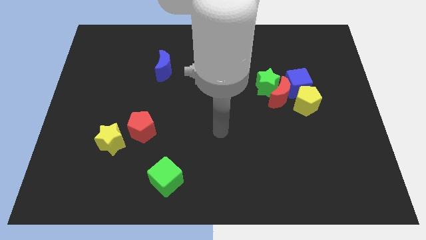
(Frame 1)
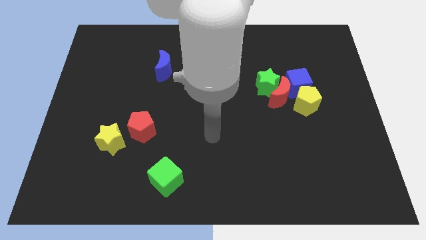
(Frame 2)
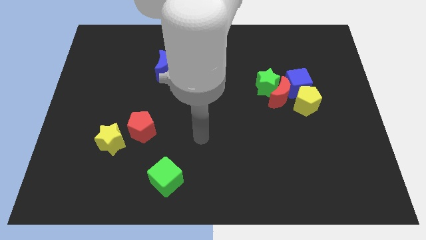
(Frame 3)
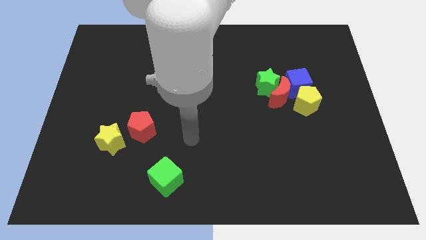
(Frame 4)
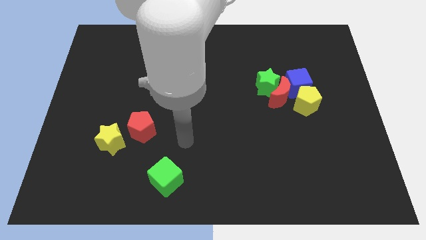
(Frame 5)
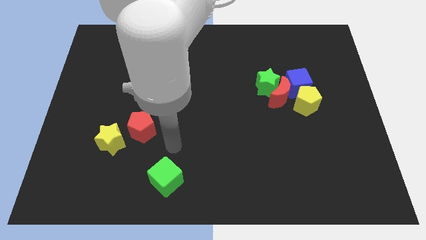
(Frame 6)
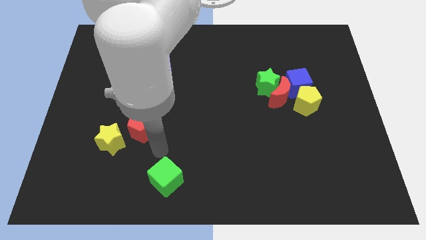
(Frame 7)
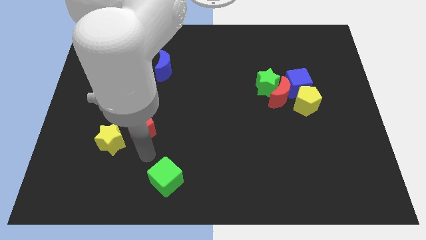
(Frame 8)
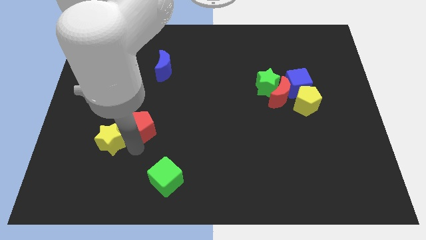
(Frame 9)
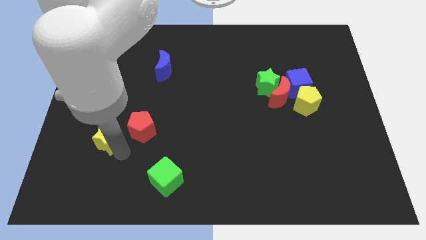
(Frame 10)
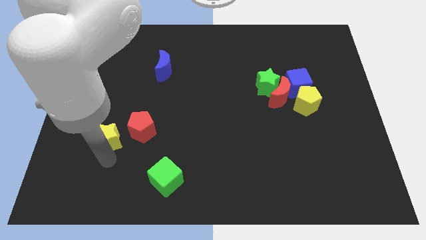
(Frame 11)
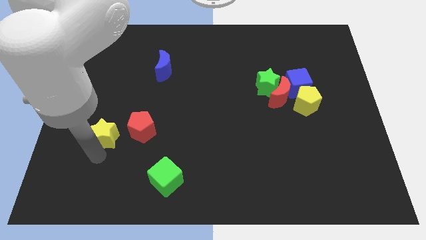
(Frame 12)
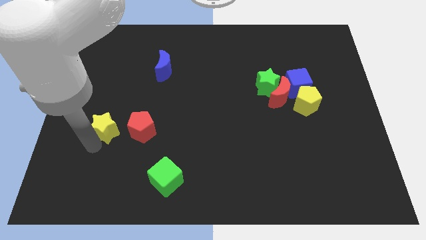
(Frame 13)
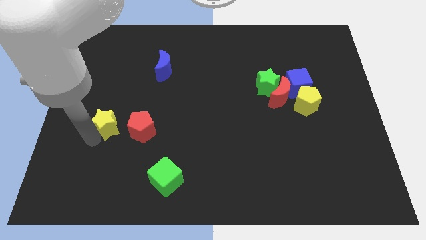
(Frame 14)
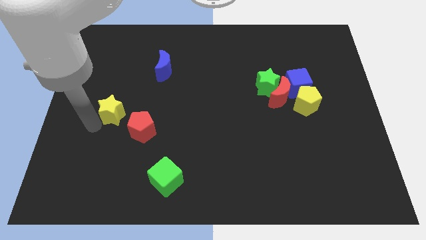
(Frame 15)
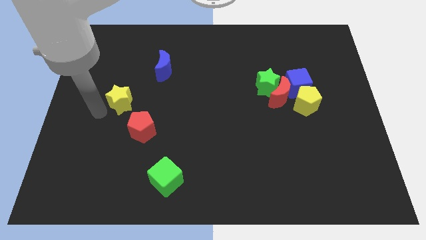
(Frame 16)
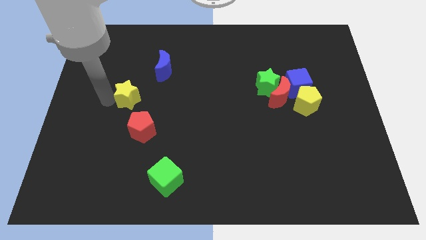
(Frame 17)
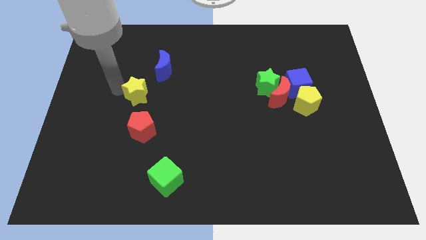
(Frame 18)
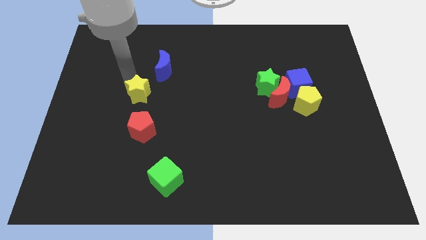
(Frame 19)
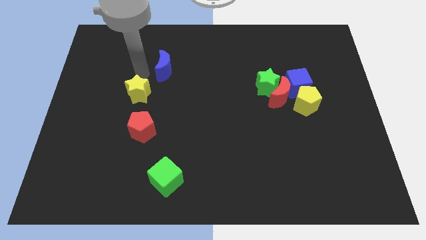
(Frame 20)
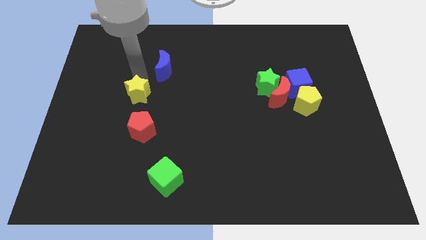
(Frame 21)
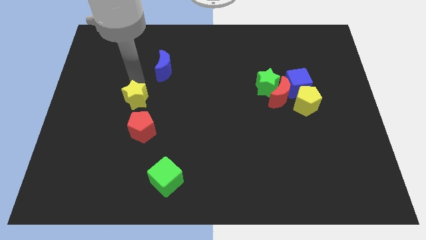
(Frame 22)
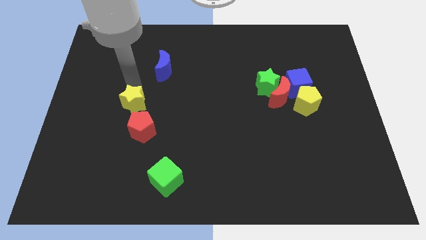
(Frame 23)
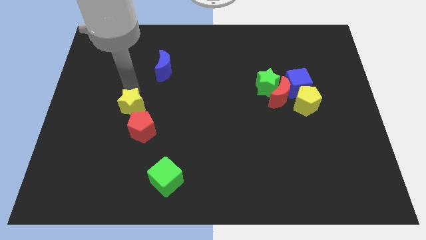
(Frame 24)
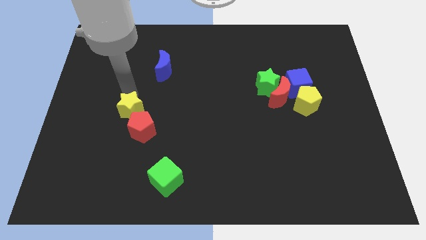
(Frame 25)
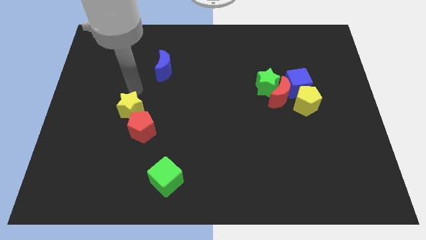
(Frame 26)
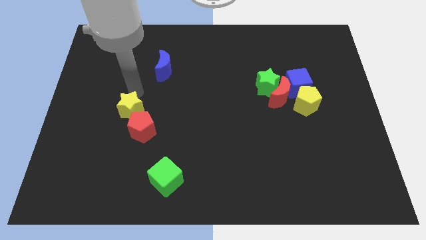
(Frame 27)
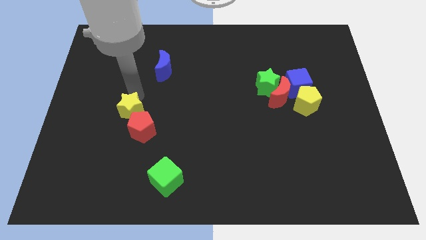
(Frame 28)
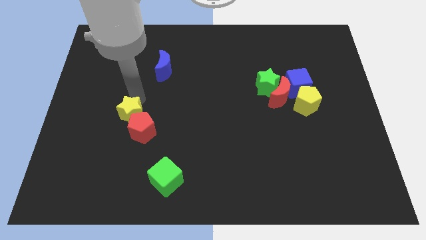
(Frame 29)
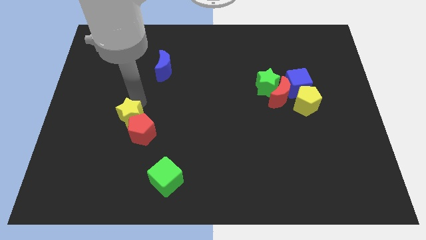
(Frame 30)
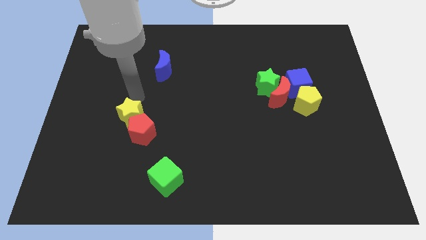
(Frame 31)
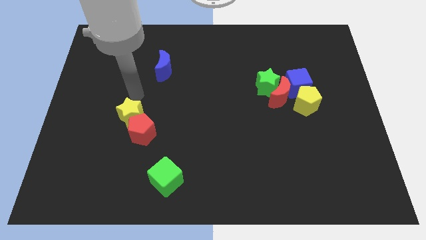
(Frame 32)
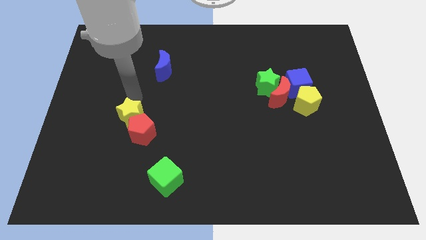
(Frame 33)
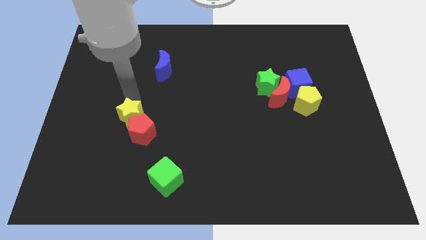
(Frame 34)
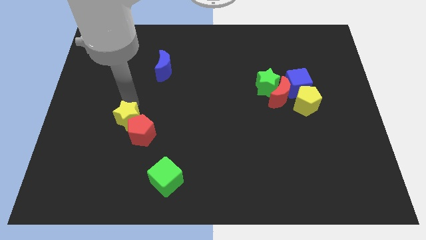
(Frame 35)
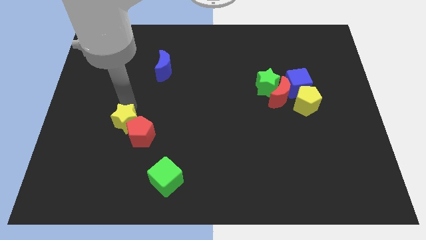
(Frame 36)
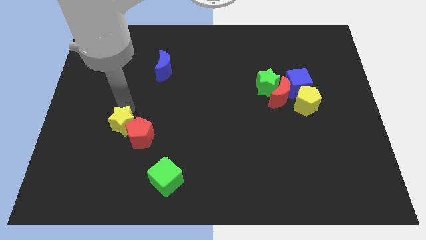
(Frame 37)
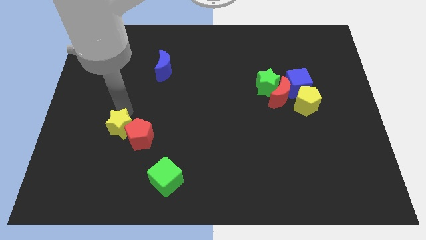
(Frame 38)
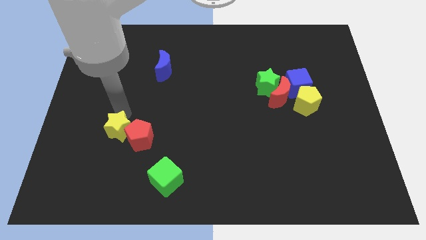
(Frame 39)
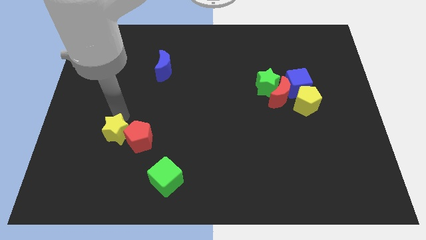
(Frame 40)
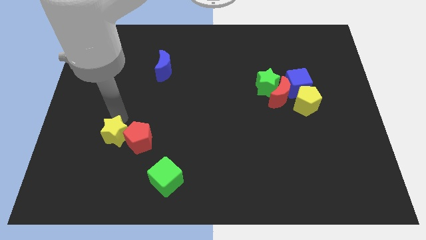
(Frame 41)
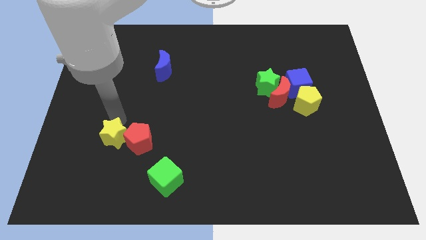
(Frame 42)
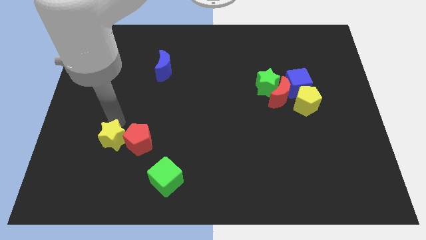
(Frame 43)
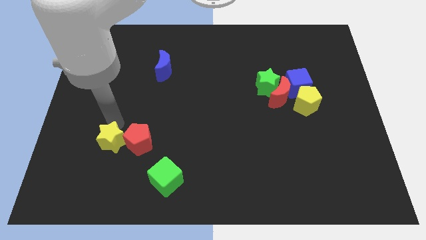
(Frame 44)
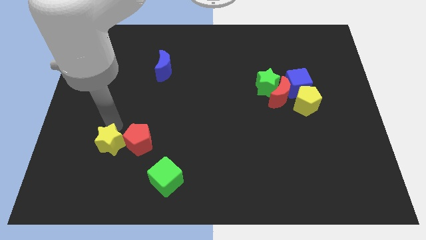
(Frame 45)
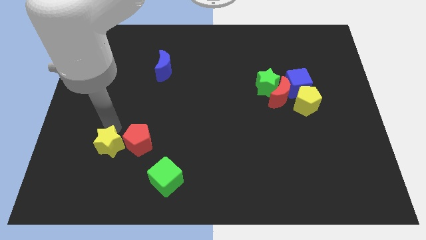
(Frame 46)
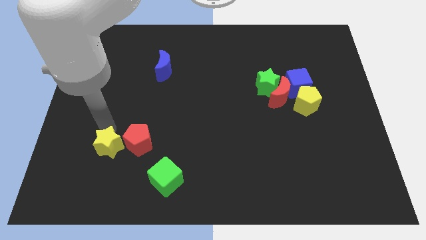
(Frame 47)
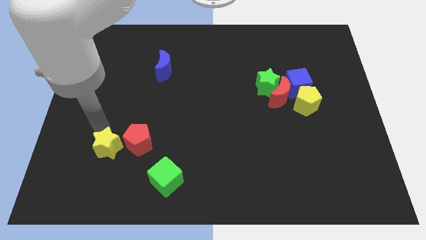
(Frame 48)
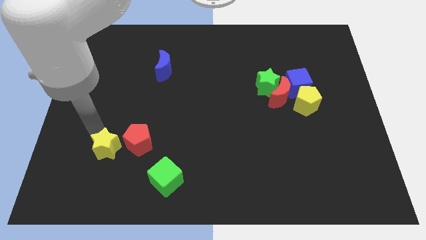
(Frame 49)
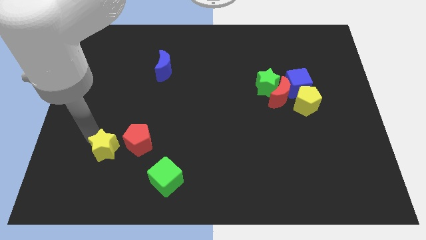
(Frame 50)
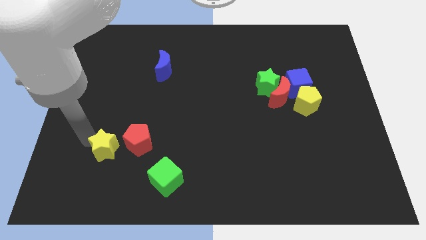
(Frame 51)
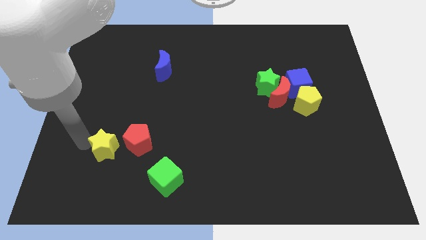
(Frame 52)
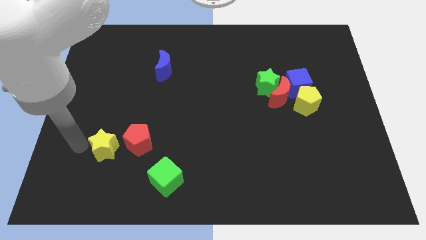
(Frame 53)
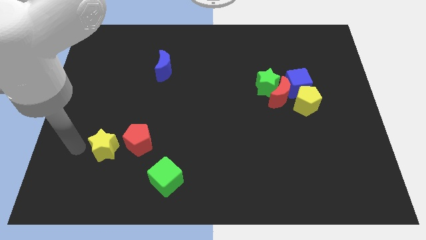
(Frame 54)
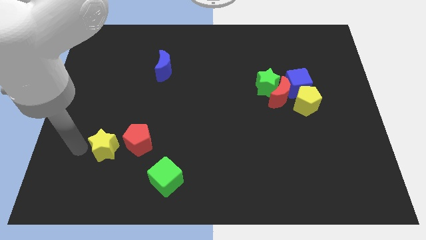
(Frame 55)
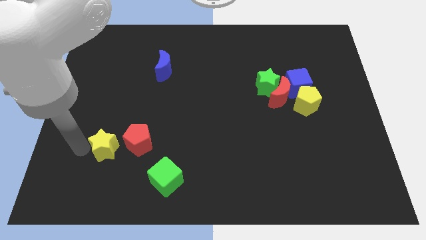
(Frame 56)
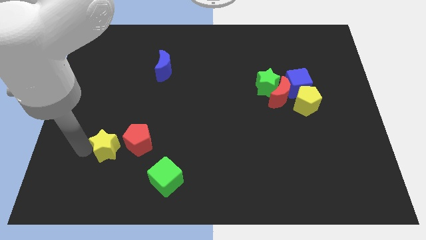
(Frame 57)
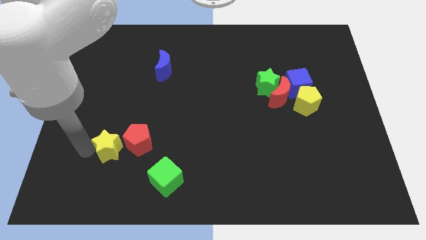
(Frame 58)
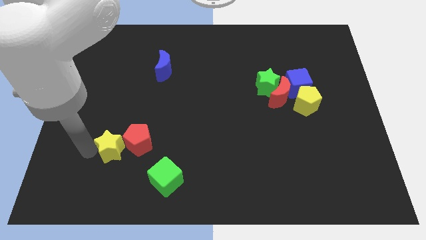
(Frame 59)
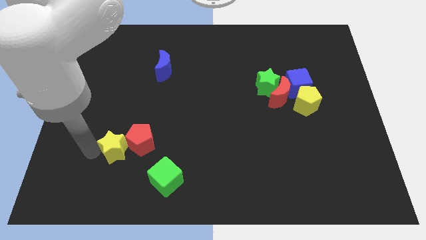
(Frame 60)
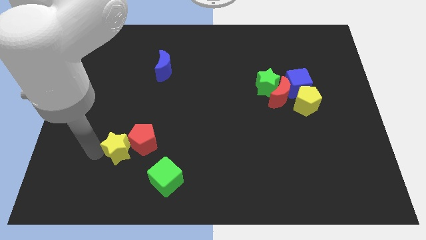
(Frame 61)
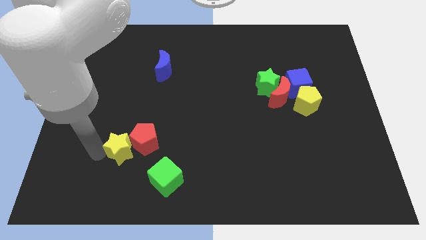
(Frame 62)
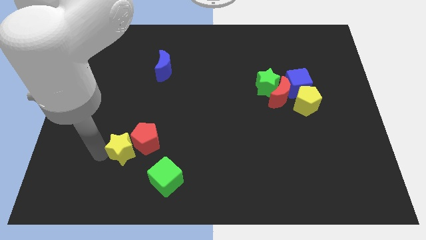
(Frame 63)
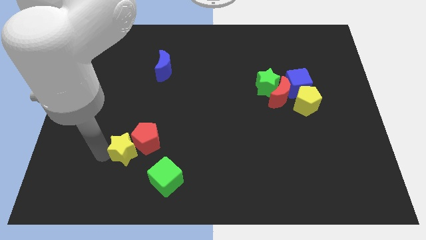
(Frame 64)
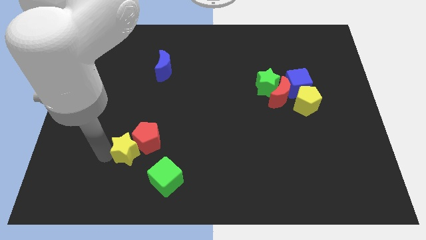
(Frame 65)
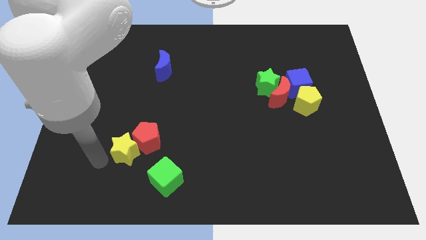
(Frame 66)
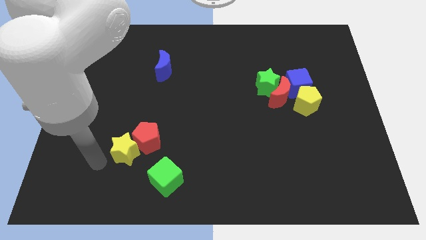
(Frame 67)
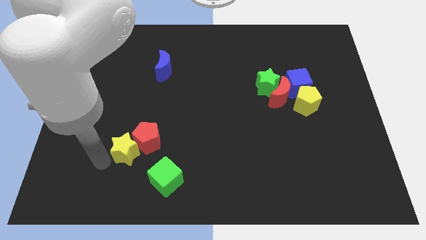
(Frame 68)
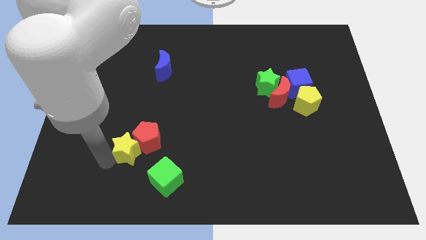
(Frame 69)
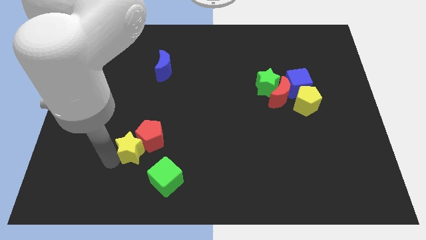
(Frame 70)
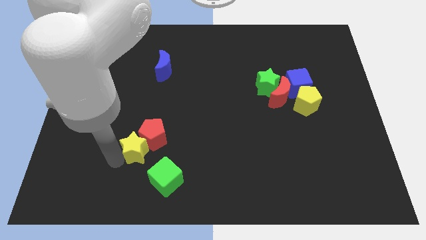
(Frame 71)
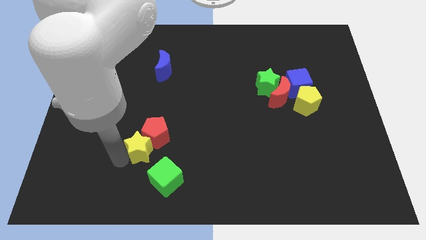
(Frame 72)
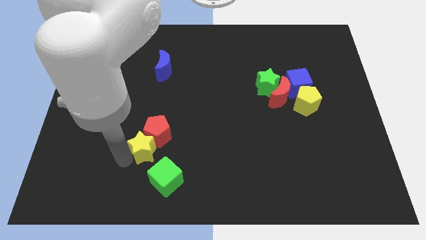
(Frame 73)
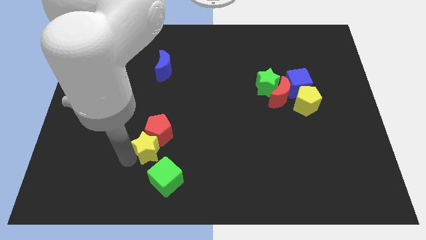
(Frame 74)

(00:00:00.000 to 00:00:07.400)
put the yellow star above the green cube

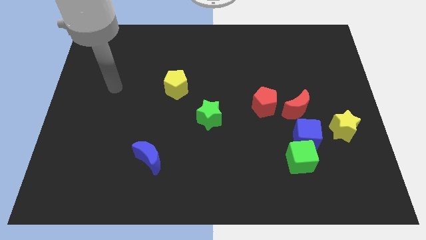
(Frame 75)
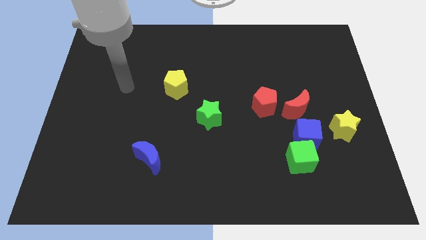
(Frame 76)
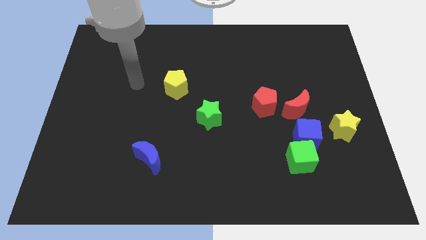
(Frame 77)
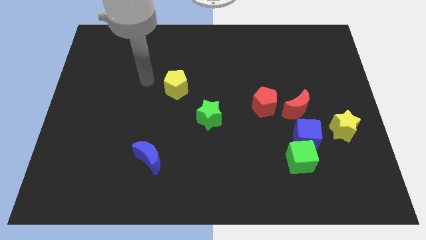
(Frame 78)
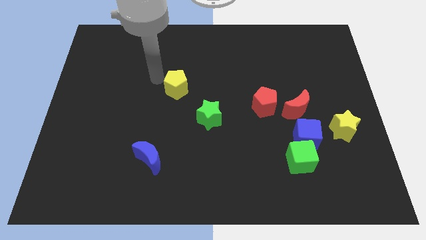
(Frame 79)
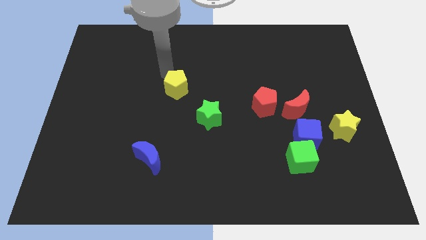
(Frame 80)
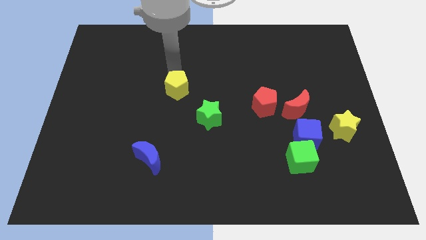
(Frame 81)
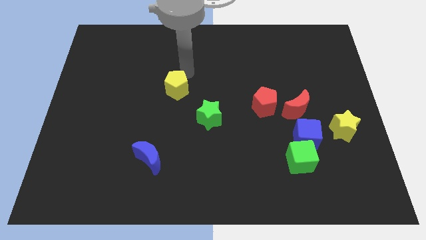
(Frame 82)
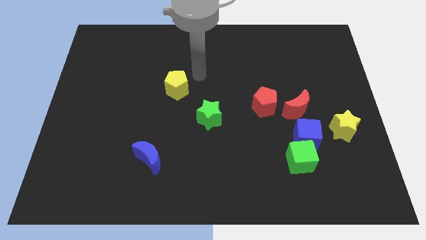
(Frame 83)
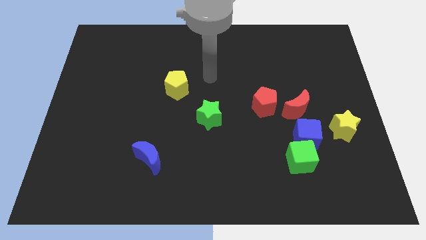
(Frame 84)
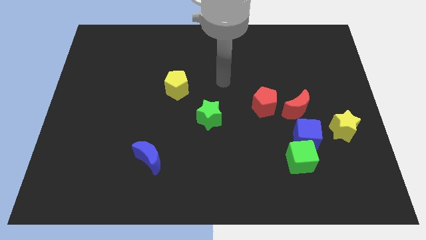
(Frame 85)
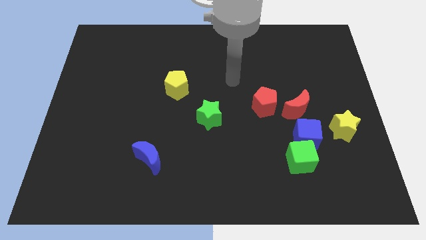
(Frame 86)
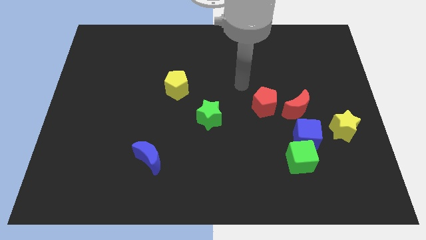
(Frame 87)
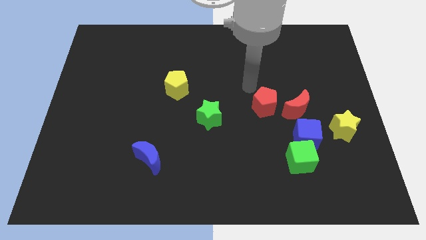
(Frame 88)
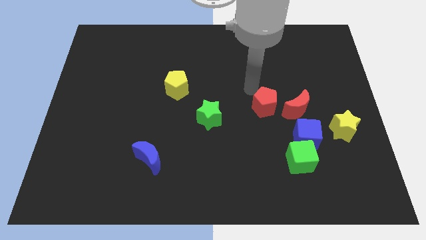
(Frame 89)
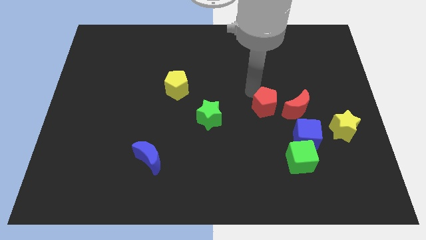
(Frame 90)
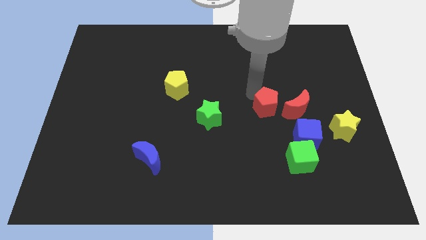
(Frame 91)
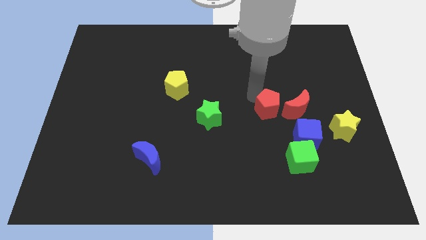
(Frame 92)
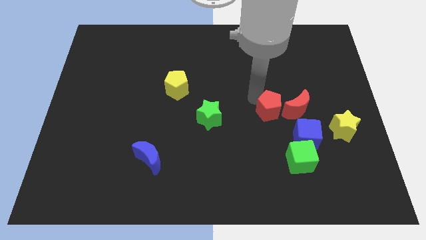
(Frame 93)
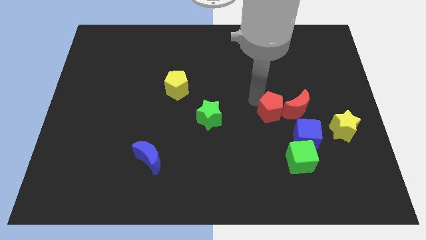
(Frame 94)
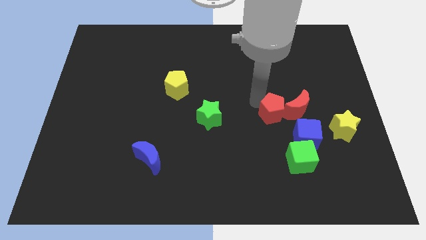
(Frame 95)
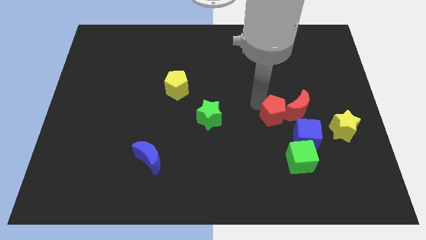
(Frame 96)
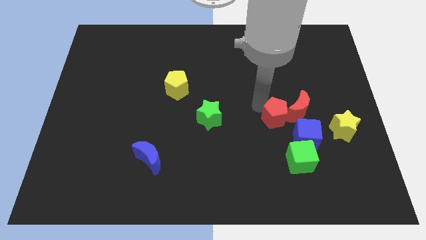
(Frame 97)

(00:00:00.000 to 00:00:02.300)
put the red pentagon to the left side of the yellow star
